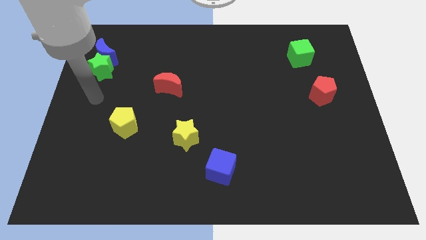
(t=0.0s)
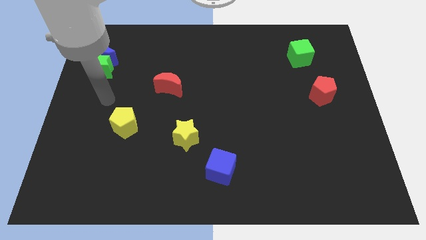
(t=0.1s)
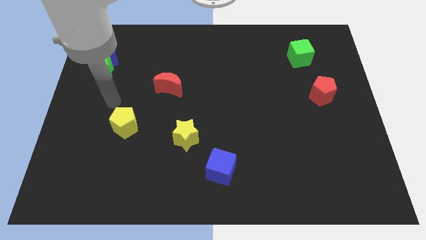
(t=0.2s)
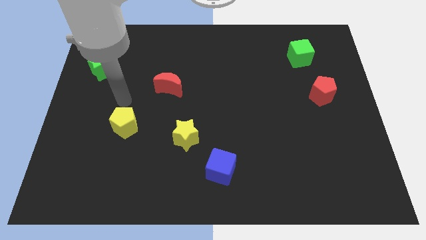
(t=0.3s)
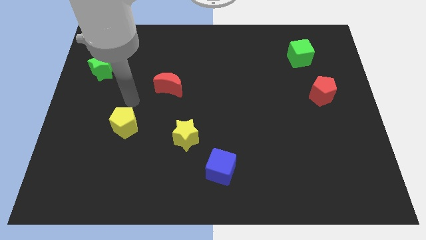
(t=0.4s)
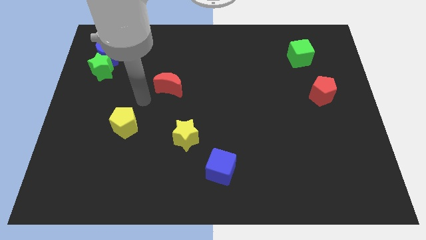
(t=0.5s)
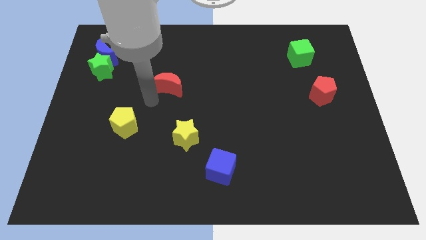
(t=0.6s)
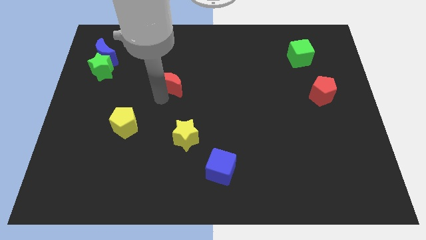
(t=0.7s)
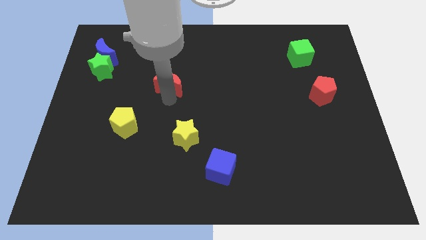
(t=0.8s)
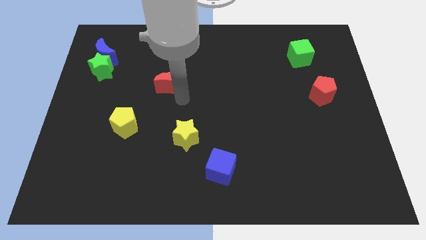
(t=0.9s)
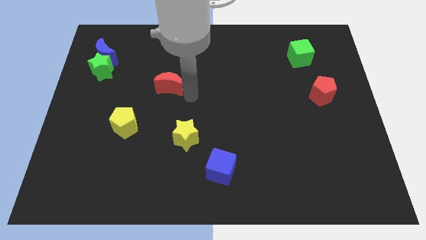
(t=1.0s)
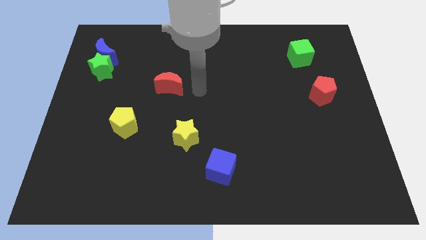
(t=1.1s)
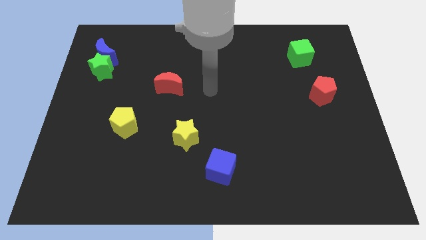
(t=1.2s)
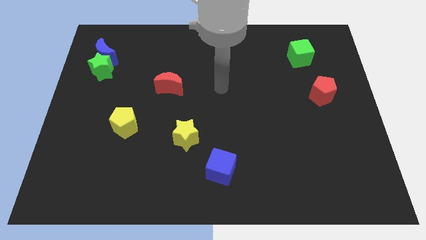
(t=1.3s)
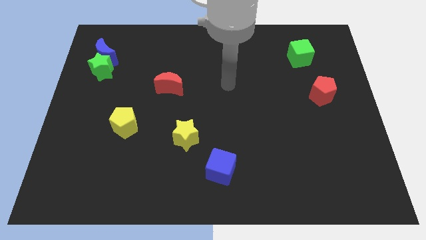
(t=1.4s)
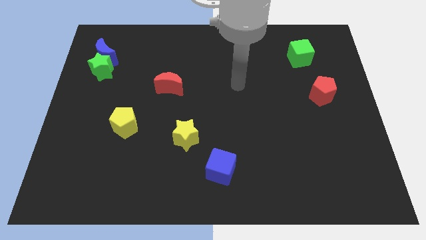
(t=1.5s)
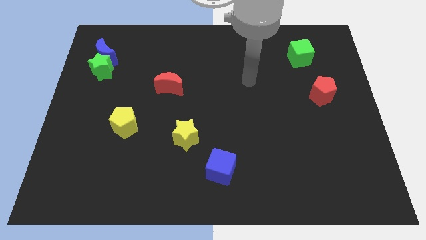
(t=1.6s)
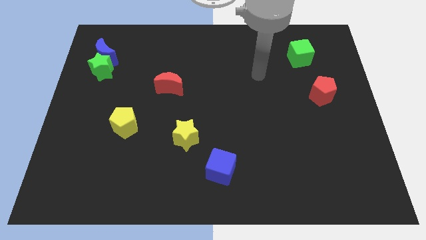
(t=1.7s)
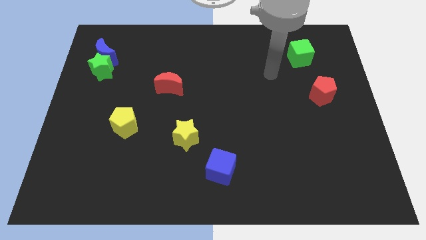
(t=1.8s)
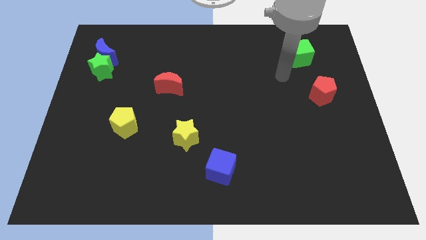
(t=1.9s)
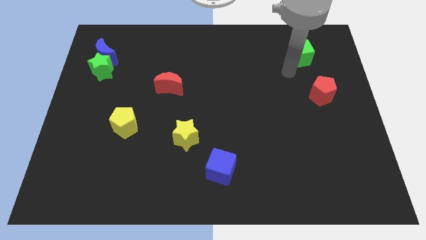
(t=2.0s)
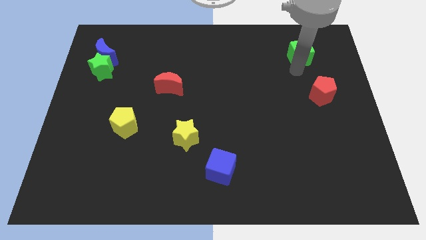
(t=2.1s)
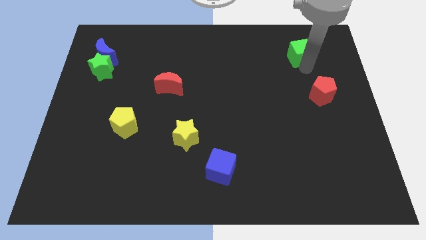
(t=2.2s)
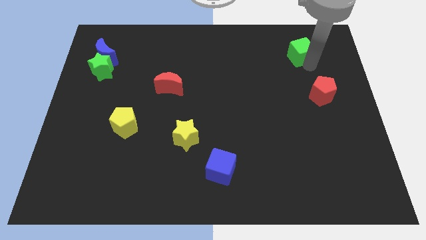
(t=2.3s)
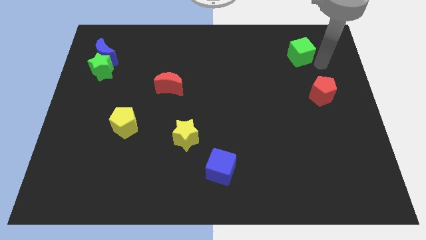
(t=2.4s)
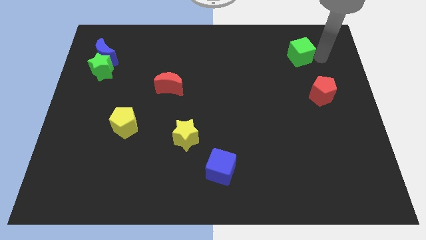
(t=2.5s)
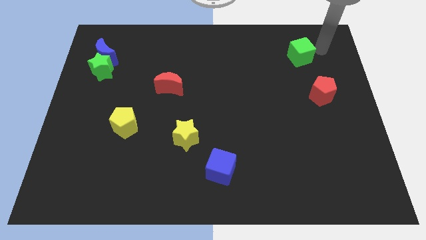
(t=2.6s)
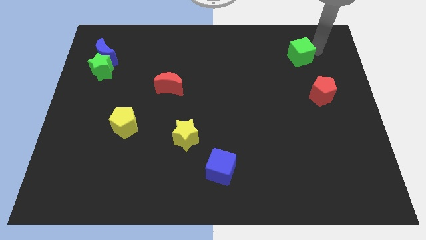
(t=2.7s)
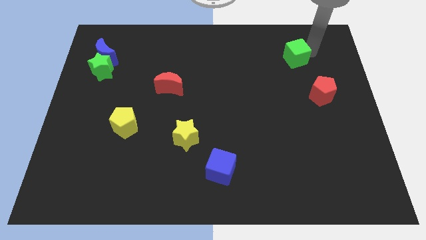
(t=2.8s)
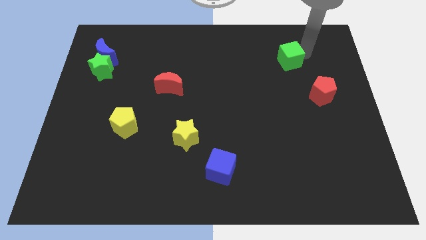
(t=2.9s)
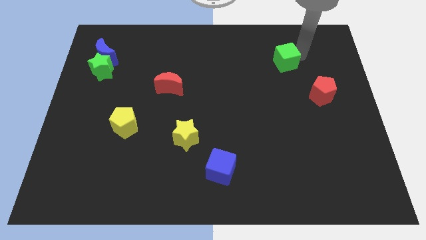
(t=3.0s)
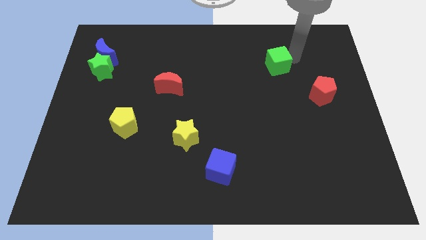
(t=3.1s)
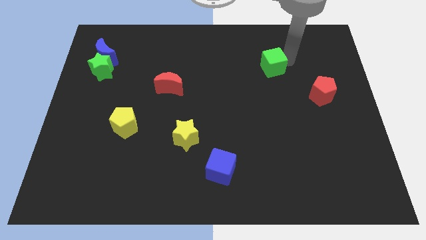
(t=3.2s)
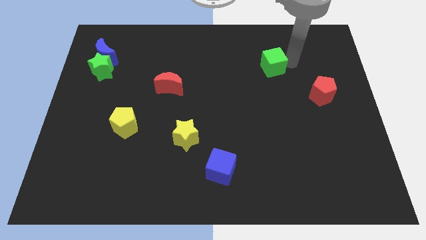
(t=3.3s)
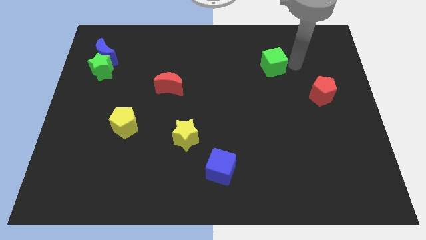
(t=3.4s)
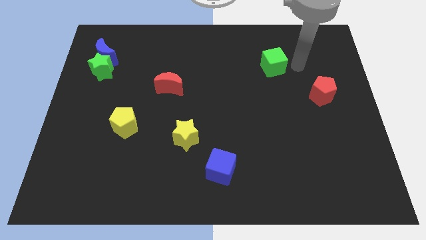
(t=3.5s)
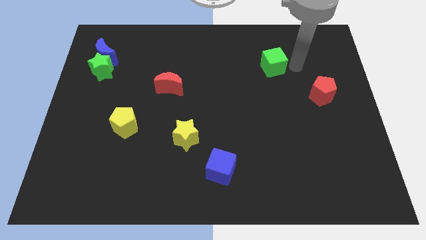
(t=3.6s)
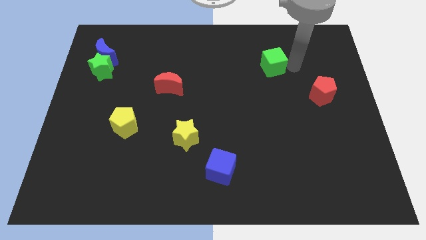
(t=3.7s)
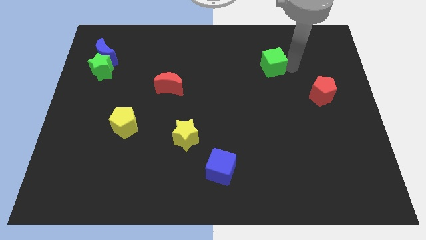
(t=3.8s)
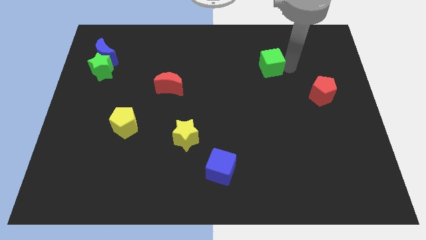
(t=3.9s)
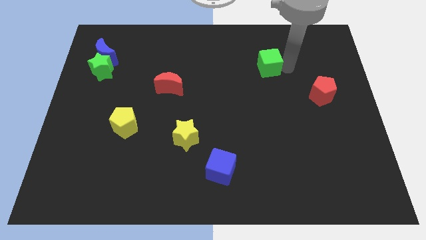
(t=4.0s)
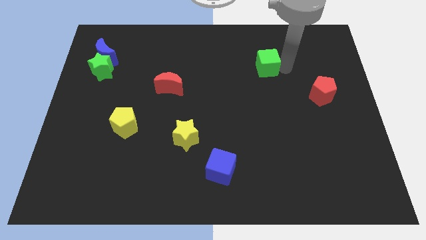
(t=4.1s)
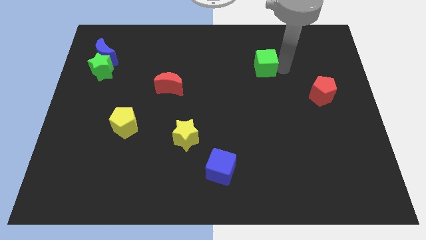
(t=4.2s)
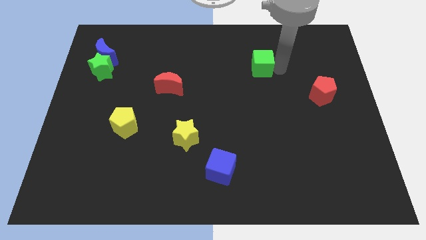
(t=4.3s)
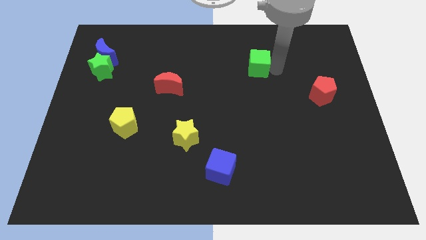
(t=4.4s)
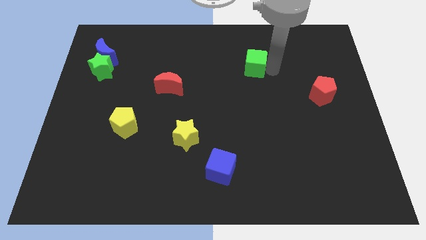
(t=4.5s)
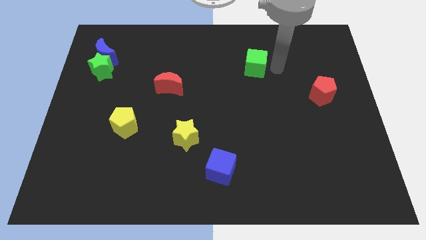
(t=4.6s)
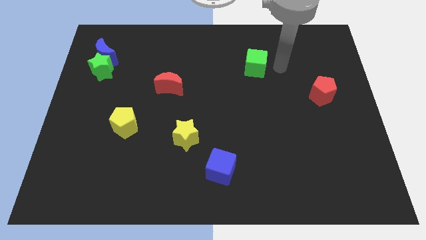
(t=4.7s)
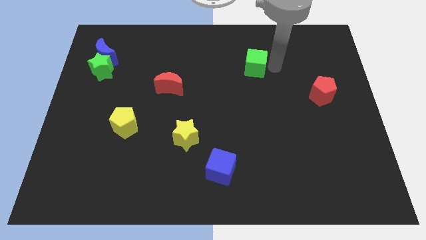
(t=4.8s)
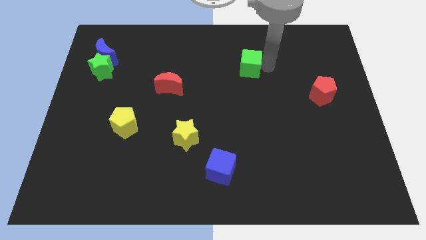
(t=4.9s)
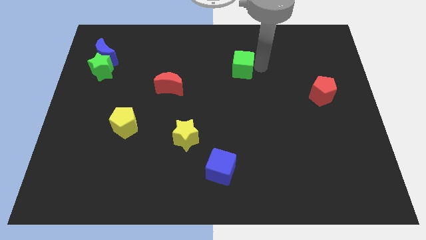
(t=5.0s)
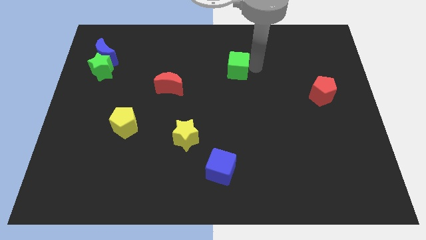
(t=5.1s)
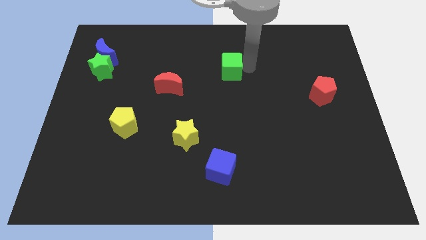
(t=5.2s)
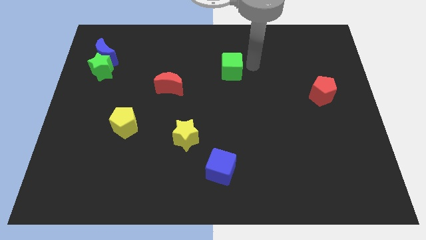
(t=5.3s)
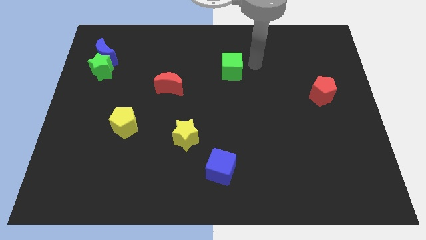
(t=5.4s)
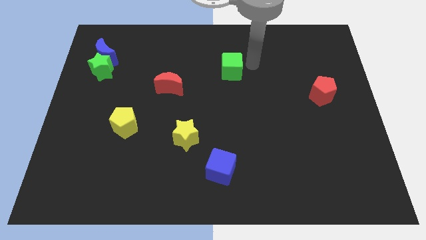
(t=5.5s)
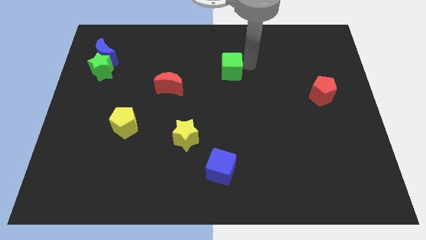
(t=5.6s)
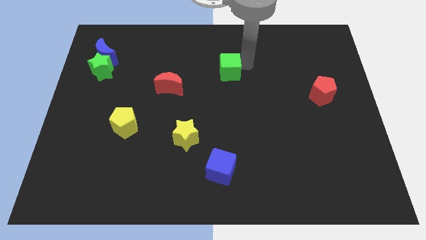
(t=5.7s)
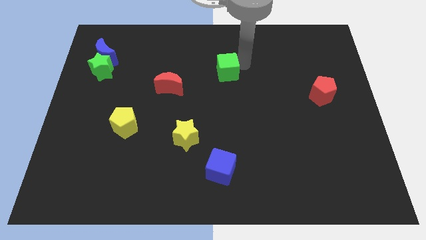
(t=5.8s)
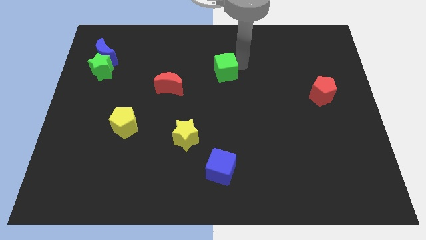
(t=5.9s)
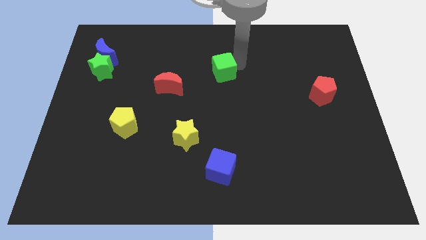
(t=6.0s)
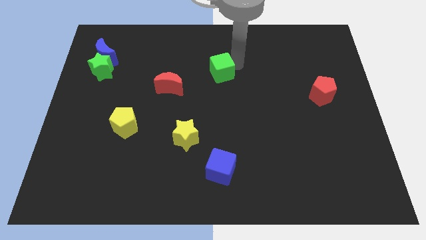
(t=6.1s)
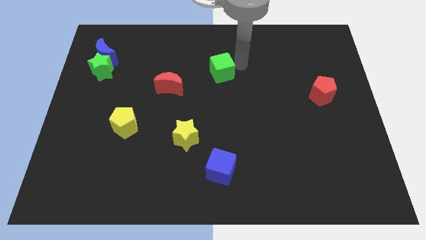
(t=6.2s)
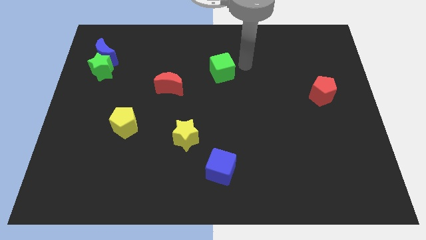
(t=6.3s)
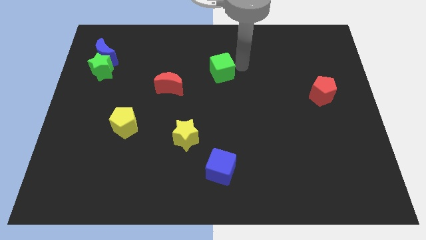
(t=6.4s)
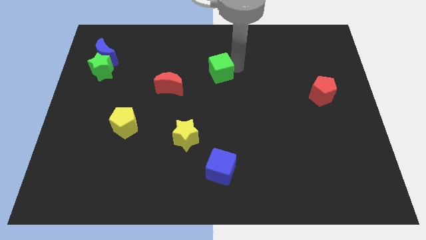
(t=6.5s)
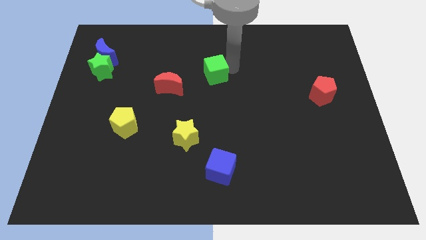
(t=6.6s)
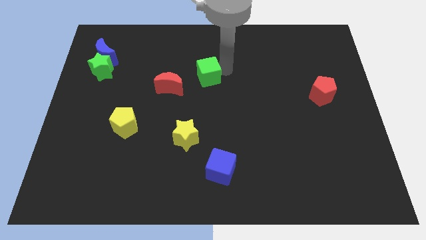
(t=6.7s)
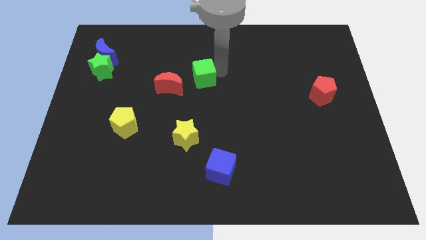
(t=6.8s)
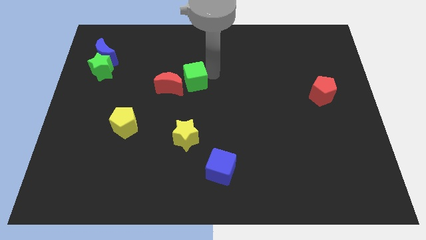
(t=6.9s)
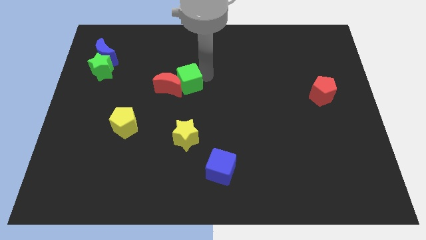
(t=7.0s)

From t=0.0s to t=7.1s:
put the green cube next to the red moon

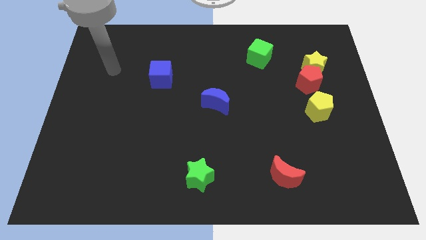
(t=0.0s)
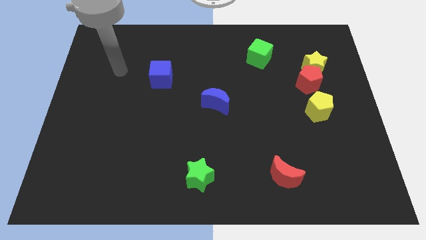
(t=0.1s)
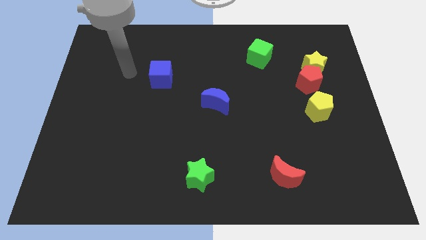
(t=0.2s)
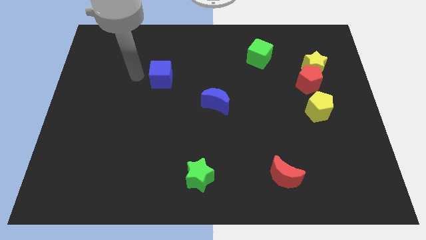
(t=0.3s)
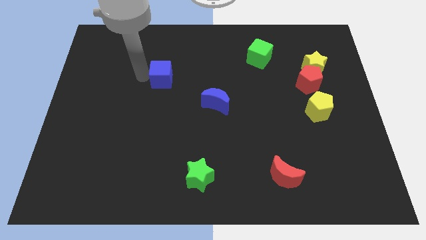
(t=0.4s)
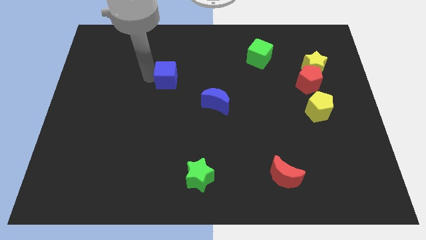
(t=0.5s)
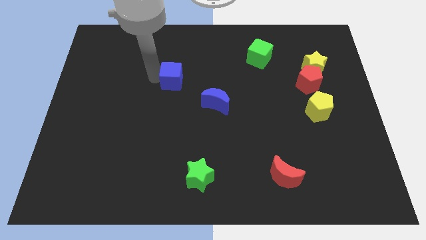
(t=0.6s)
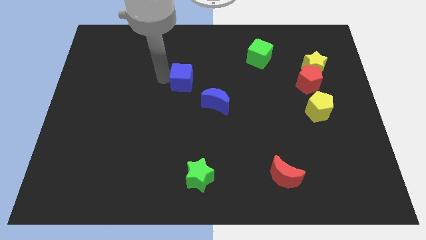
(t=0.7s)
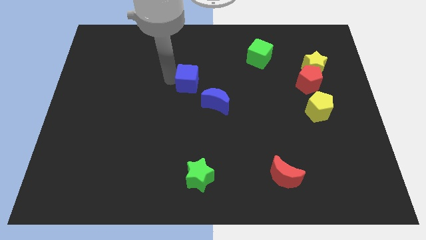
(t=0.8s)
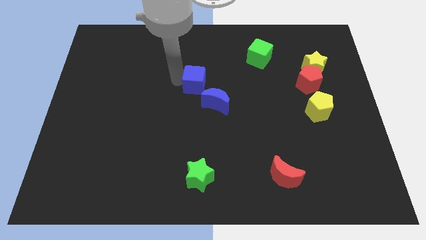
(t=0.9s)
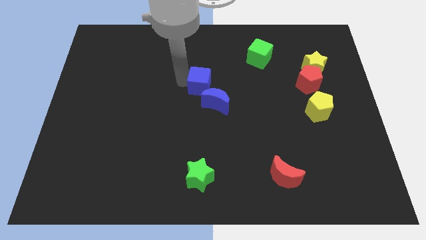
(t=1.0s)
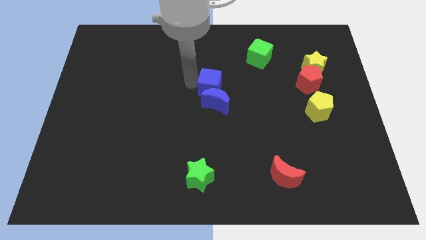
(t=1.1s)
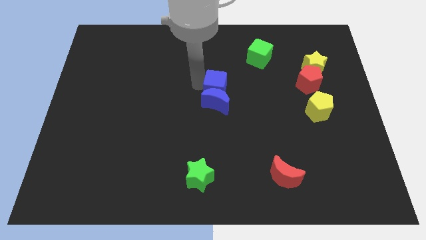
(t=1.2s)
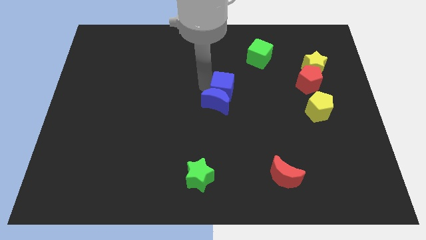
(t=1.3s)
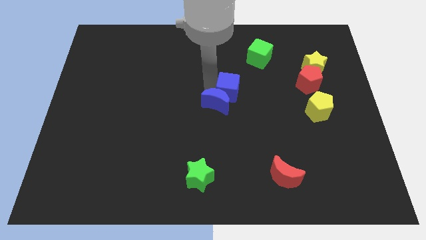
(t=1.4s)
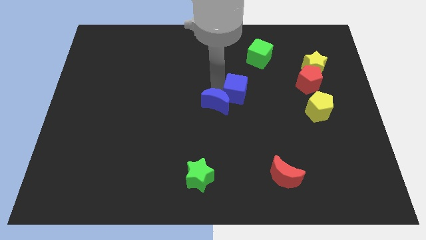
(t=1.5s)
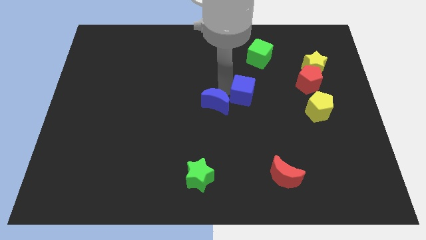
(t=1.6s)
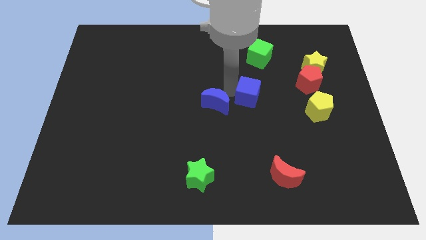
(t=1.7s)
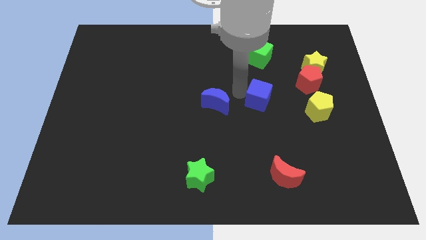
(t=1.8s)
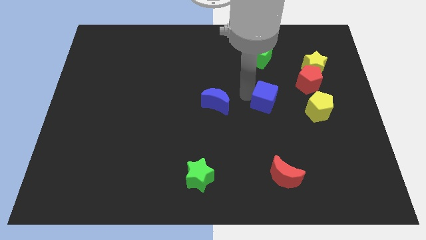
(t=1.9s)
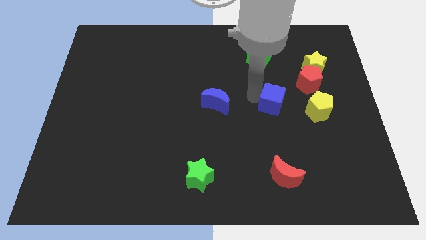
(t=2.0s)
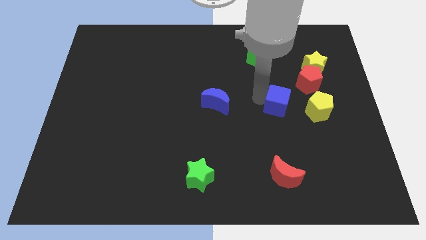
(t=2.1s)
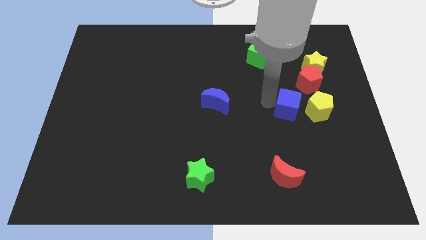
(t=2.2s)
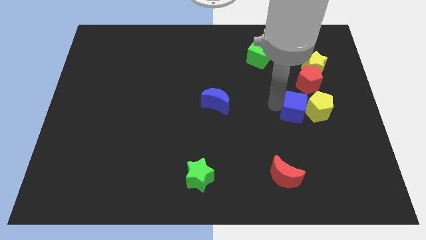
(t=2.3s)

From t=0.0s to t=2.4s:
put the blue cube next to the yellow pentagon
